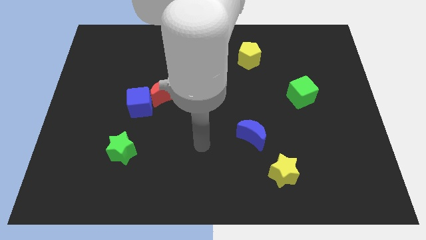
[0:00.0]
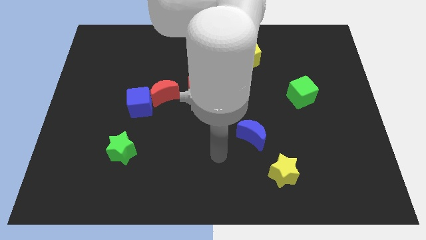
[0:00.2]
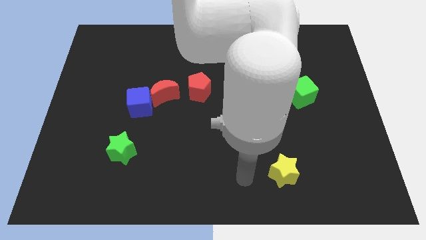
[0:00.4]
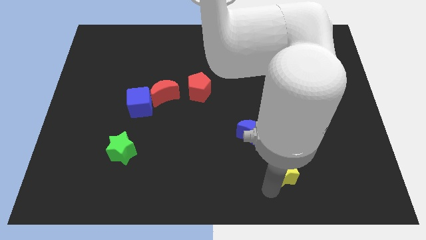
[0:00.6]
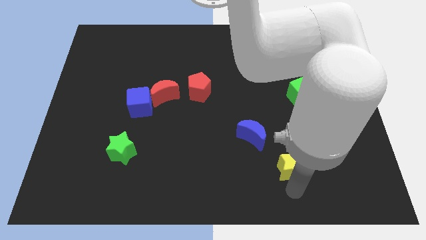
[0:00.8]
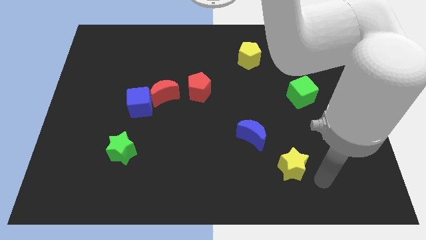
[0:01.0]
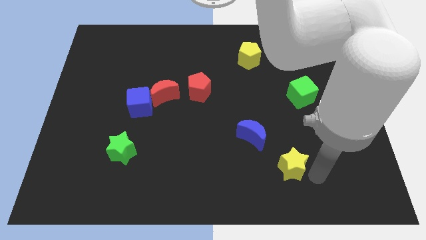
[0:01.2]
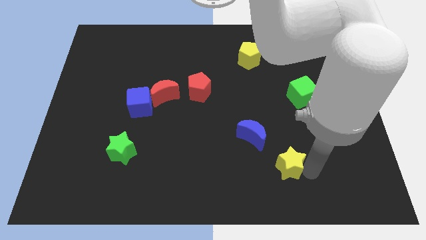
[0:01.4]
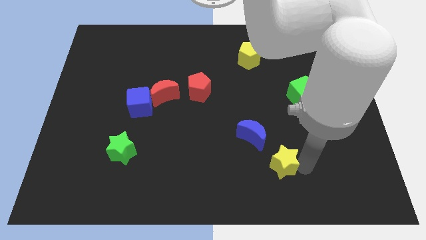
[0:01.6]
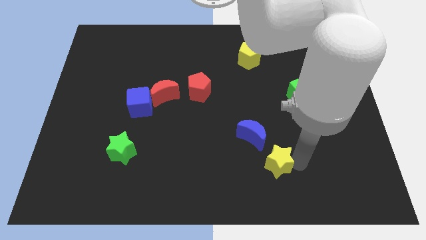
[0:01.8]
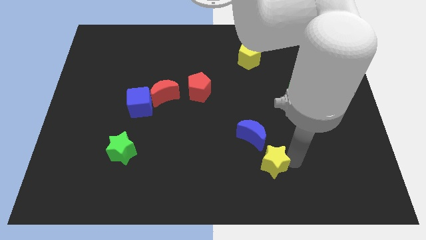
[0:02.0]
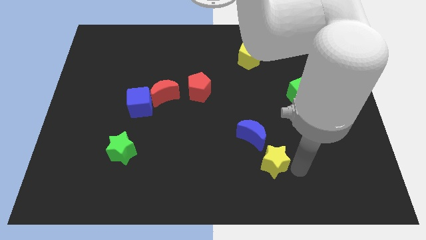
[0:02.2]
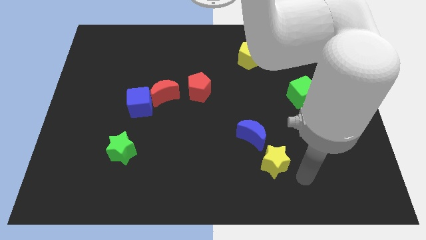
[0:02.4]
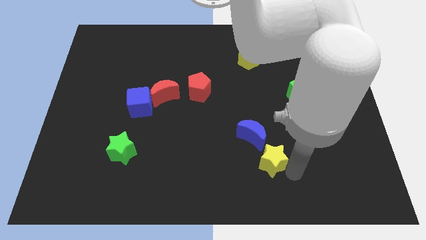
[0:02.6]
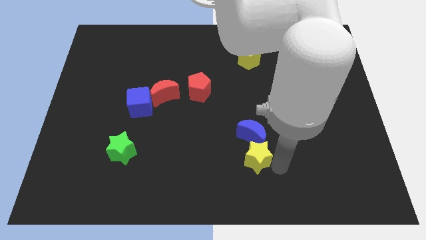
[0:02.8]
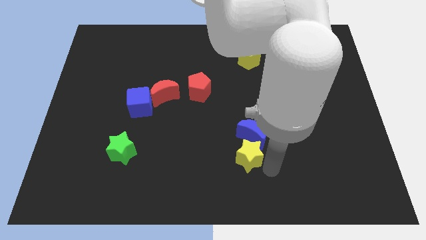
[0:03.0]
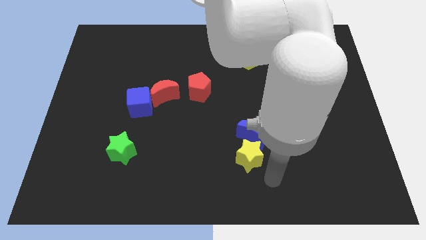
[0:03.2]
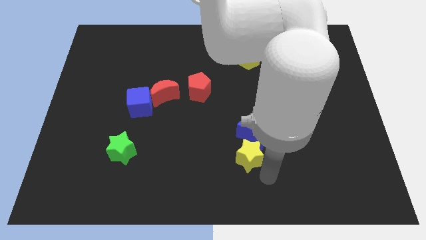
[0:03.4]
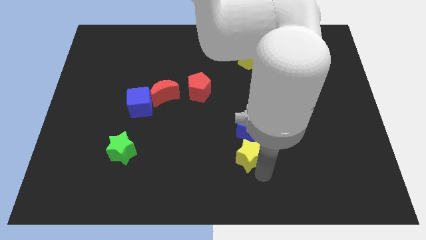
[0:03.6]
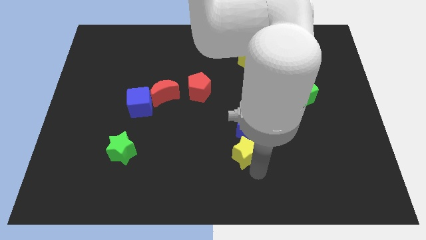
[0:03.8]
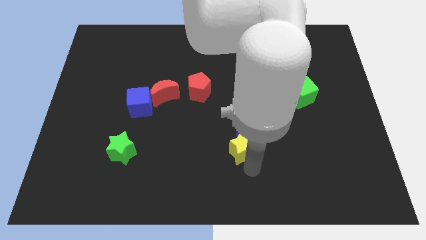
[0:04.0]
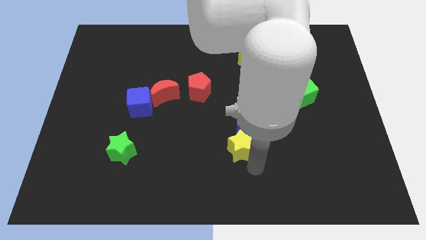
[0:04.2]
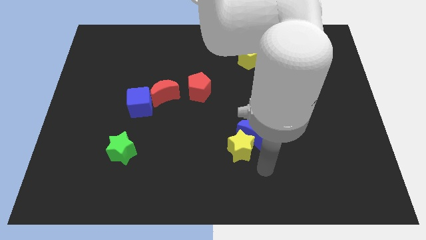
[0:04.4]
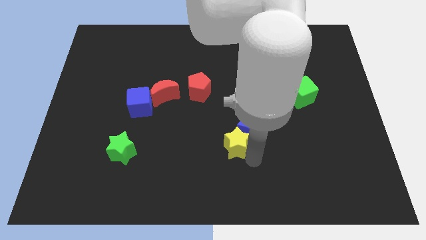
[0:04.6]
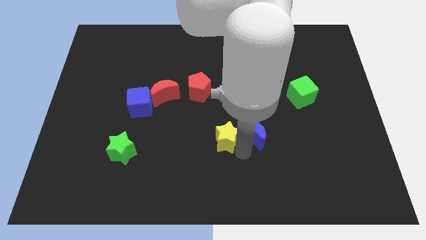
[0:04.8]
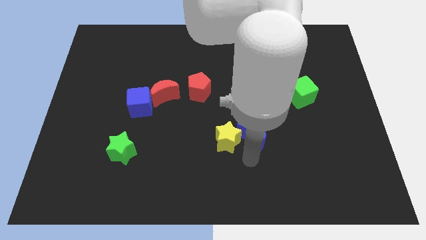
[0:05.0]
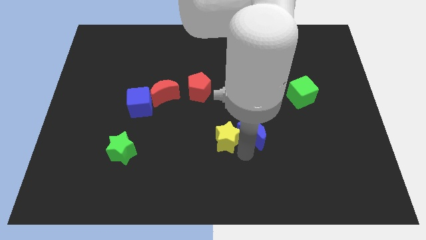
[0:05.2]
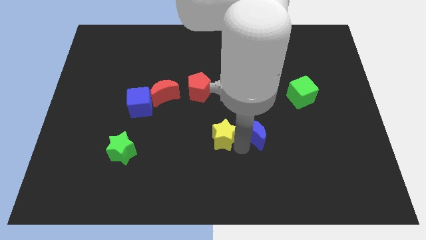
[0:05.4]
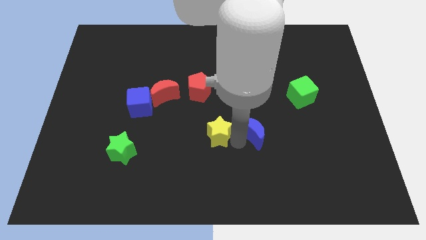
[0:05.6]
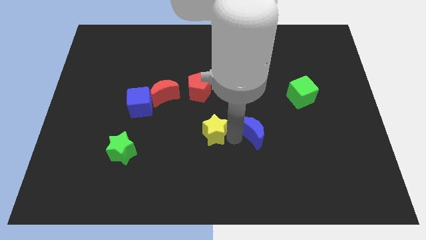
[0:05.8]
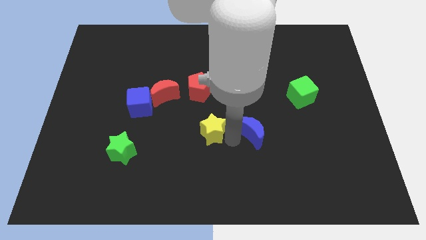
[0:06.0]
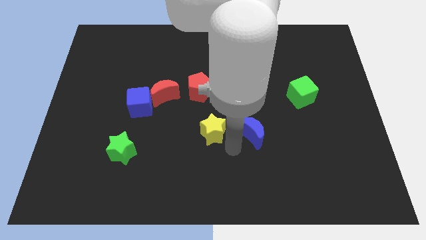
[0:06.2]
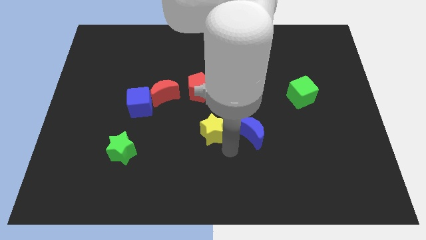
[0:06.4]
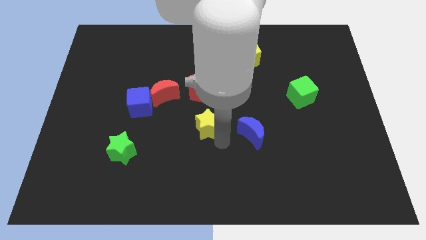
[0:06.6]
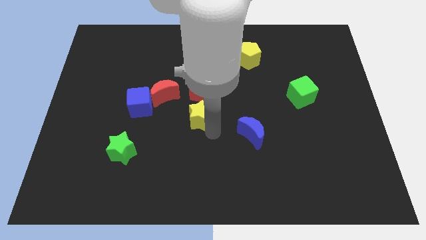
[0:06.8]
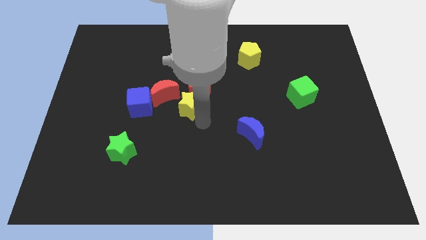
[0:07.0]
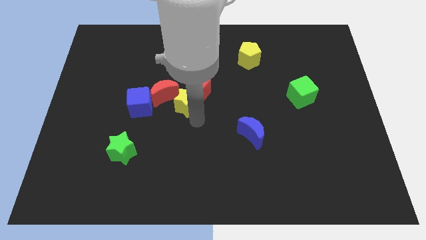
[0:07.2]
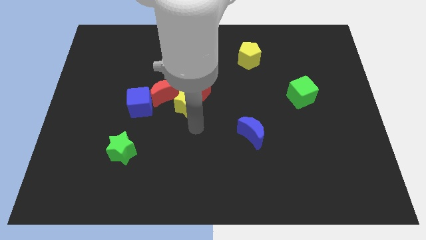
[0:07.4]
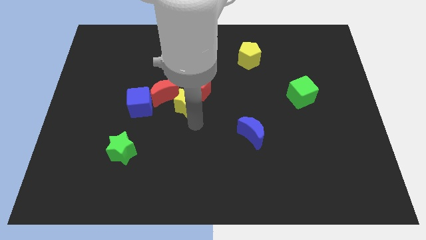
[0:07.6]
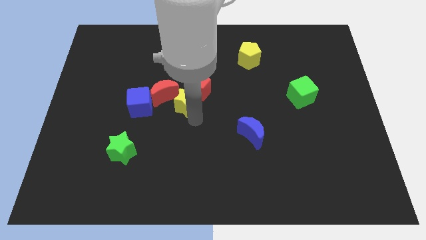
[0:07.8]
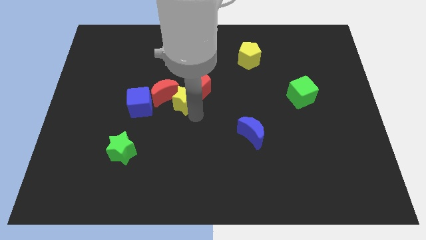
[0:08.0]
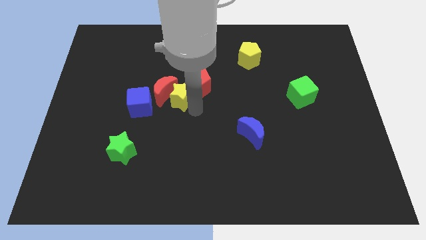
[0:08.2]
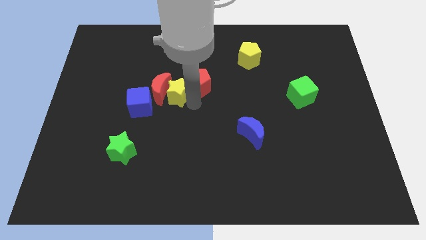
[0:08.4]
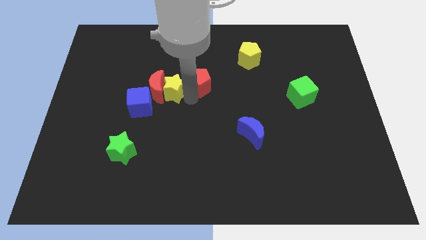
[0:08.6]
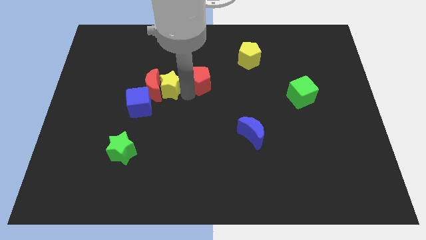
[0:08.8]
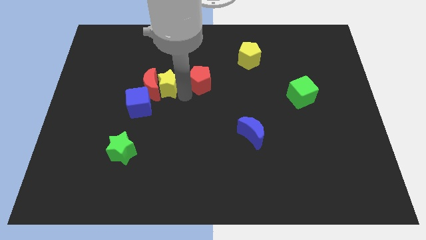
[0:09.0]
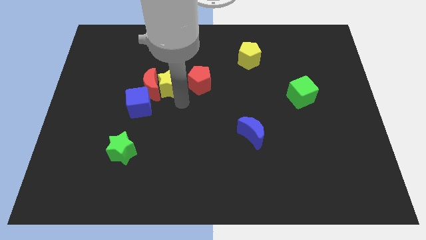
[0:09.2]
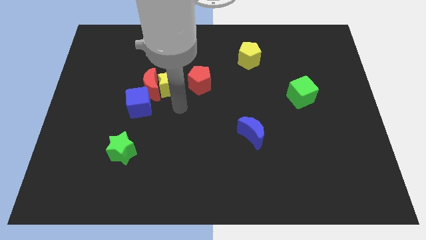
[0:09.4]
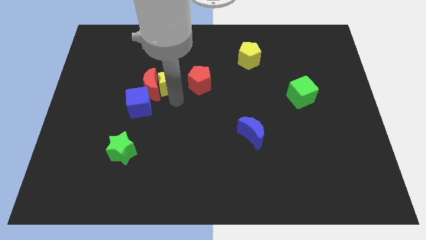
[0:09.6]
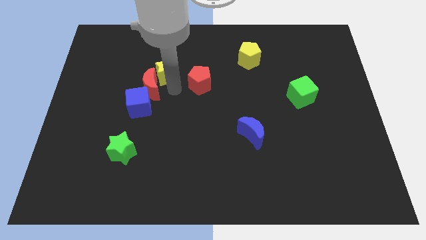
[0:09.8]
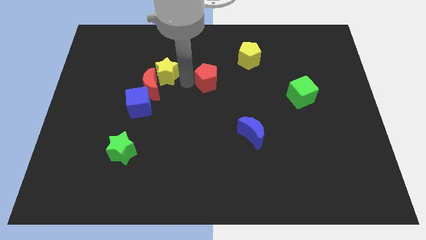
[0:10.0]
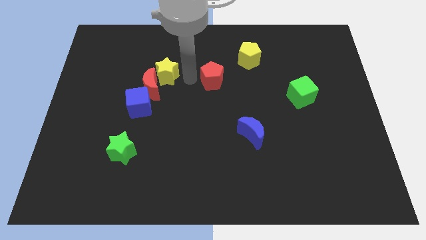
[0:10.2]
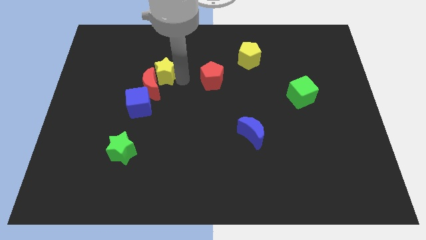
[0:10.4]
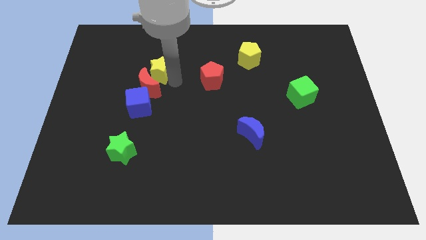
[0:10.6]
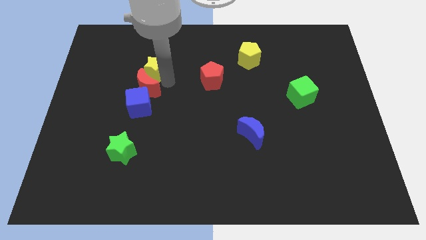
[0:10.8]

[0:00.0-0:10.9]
move the yellow star to the top left of the red moon

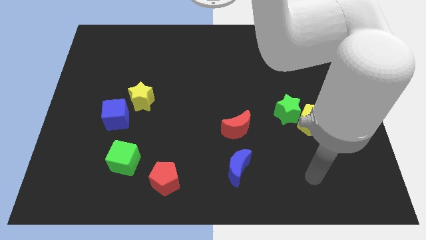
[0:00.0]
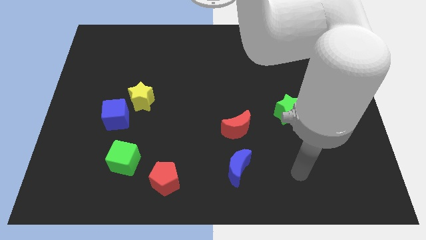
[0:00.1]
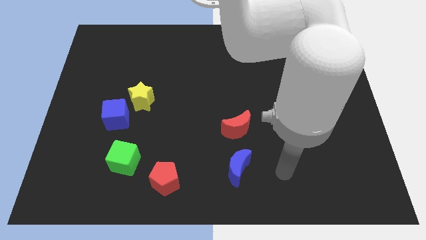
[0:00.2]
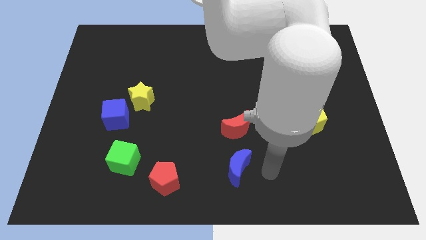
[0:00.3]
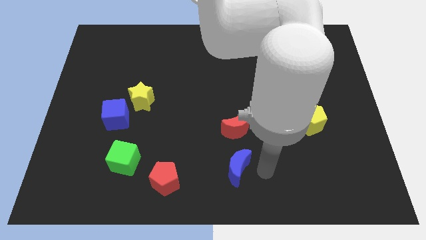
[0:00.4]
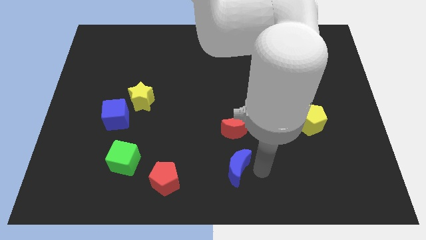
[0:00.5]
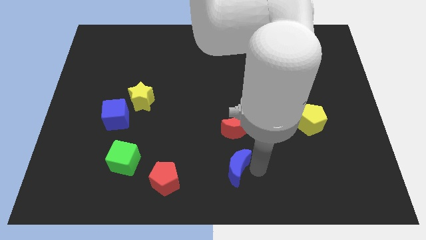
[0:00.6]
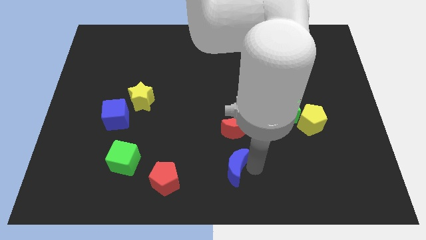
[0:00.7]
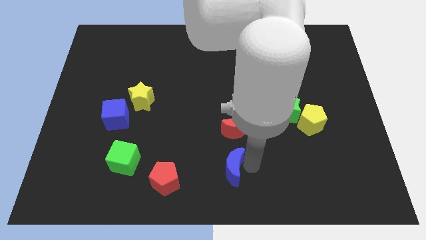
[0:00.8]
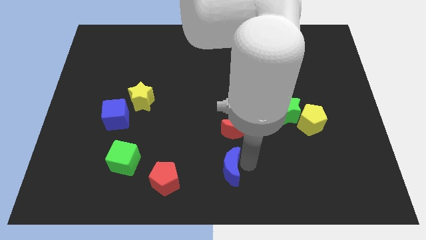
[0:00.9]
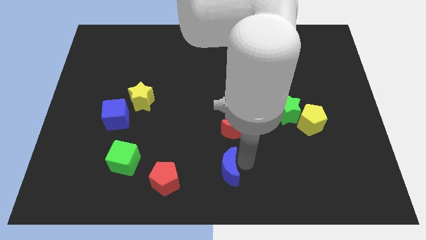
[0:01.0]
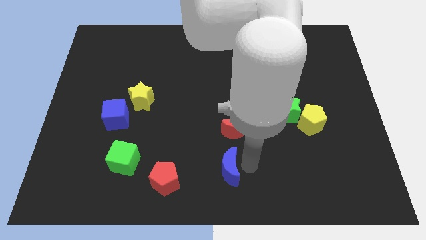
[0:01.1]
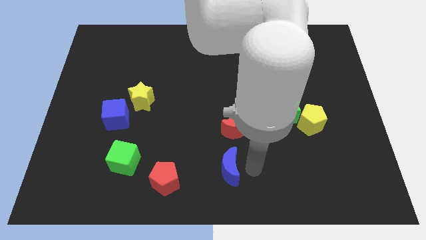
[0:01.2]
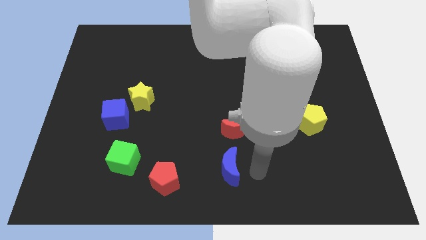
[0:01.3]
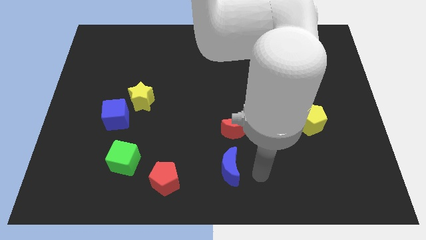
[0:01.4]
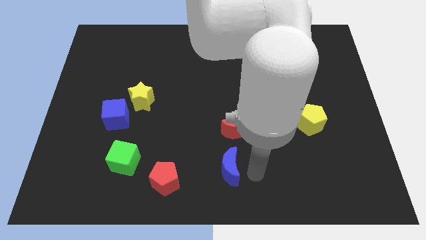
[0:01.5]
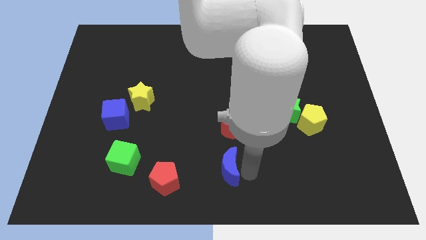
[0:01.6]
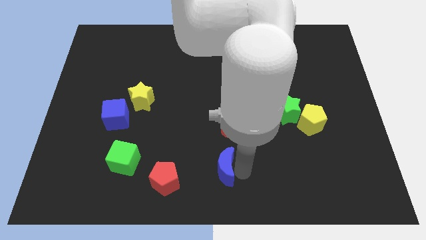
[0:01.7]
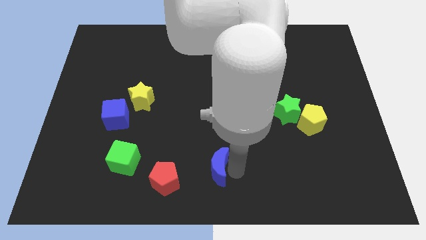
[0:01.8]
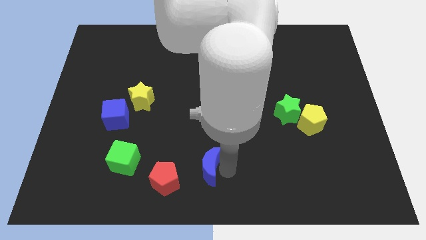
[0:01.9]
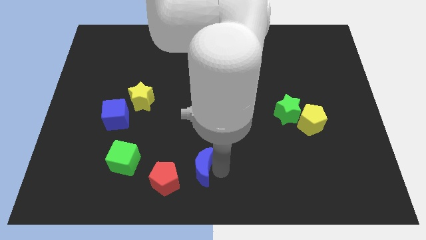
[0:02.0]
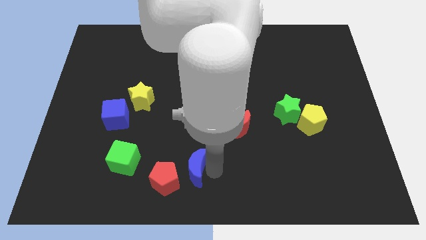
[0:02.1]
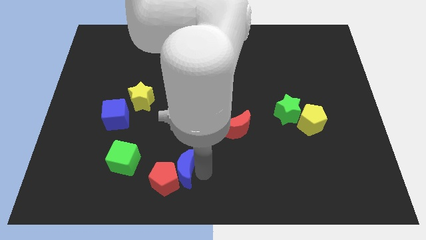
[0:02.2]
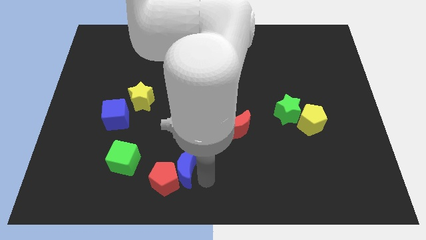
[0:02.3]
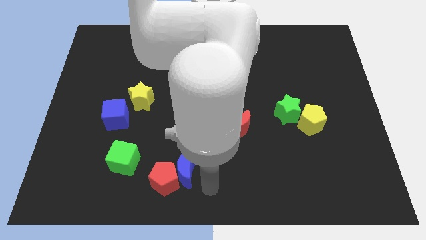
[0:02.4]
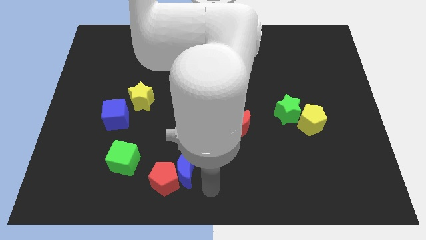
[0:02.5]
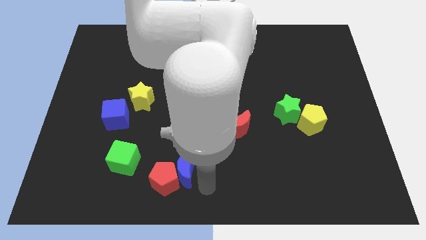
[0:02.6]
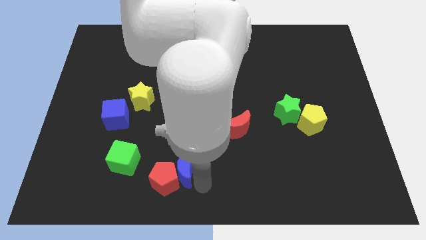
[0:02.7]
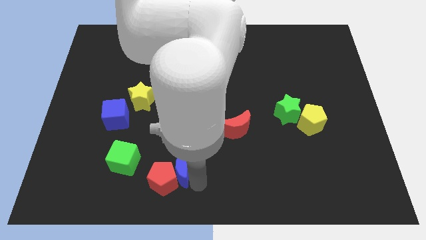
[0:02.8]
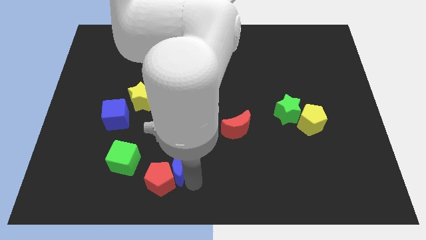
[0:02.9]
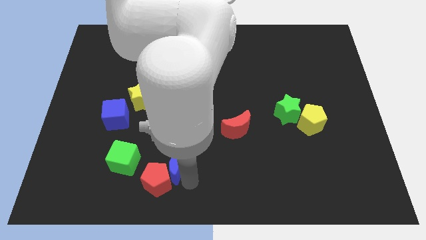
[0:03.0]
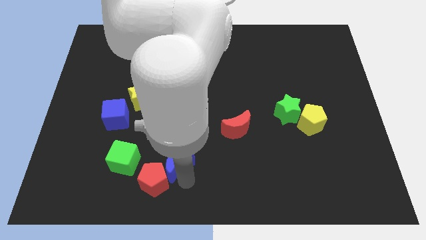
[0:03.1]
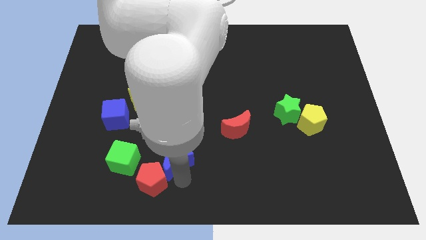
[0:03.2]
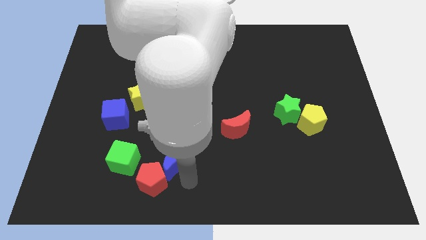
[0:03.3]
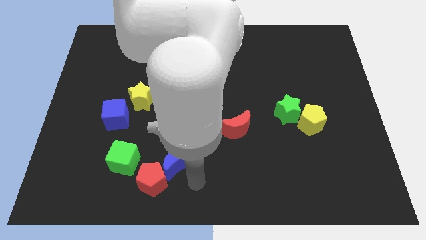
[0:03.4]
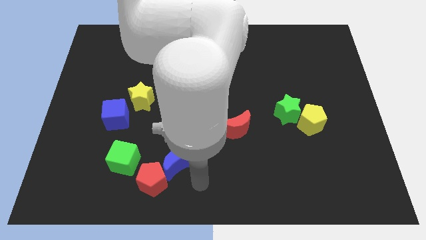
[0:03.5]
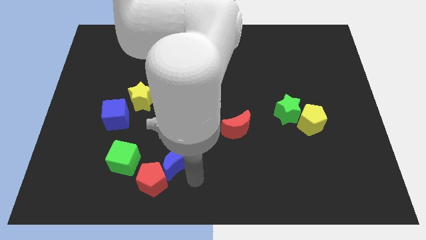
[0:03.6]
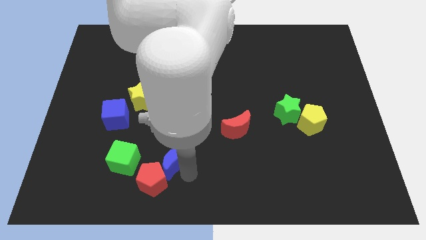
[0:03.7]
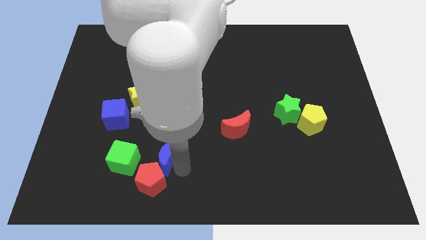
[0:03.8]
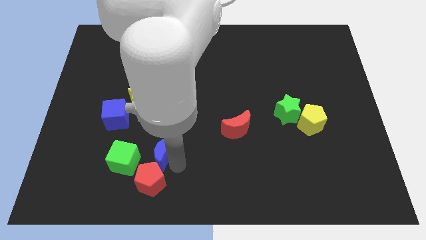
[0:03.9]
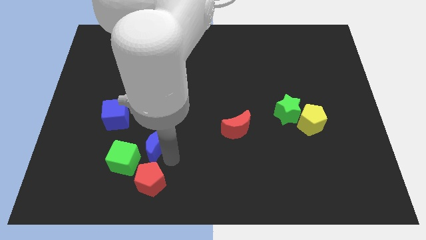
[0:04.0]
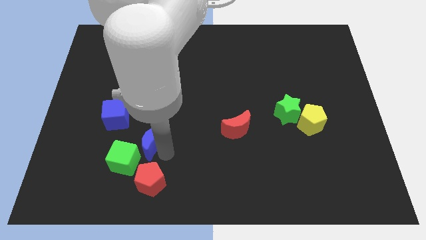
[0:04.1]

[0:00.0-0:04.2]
move the blue moon below the yellow star
